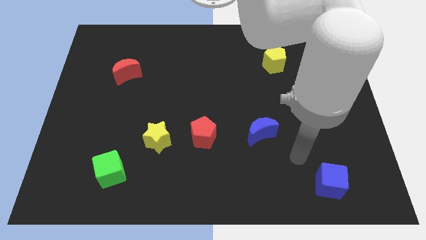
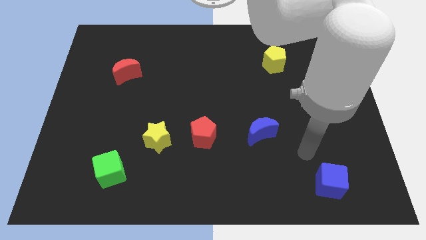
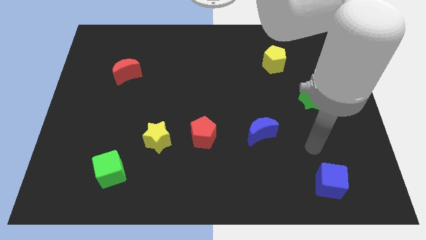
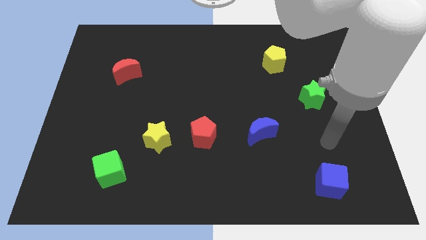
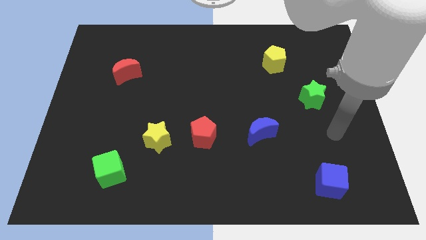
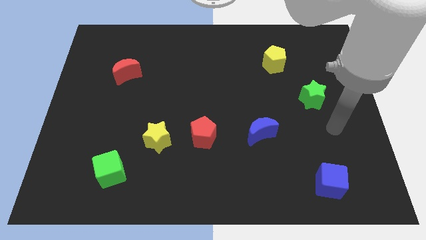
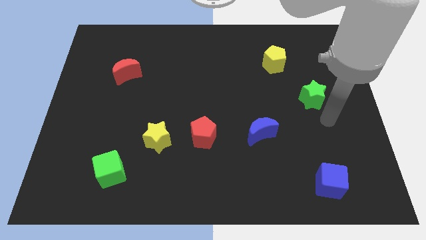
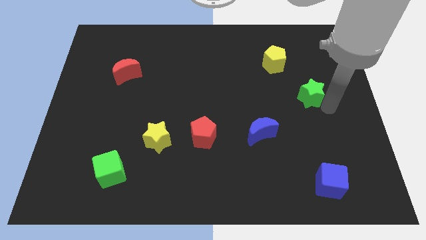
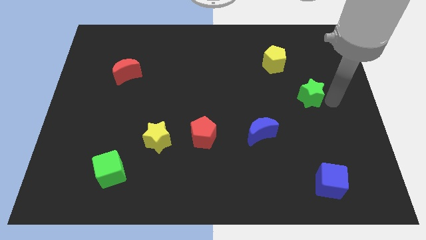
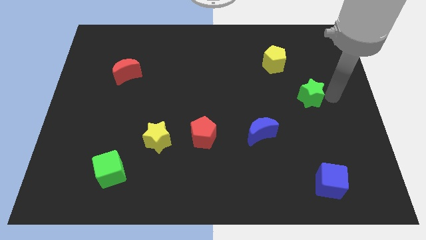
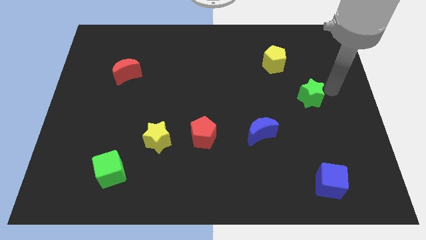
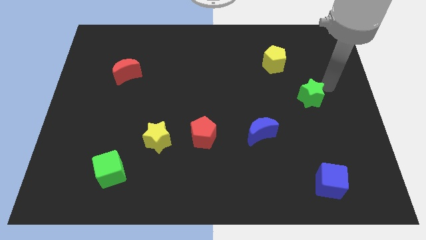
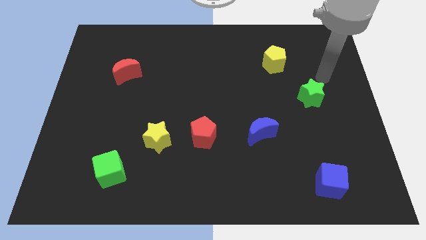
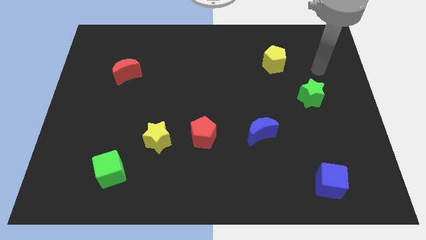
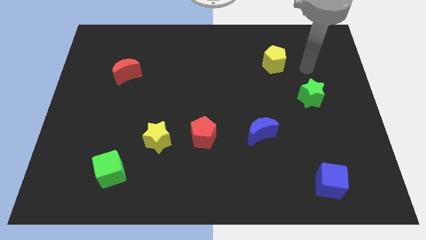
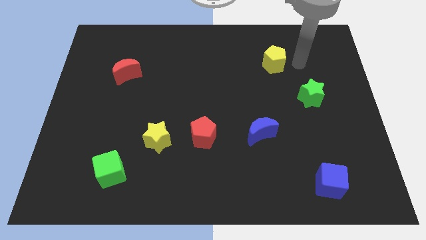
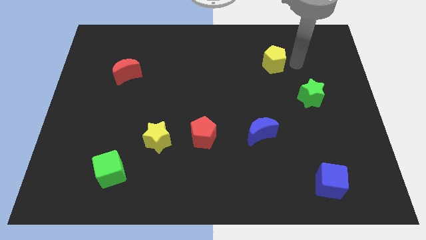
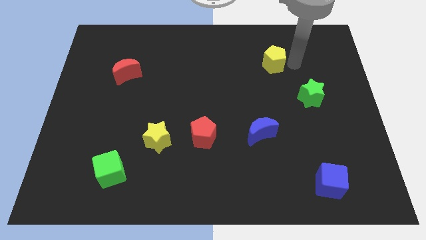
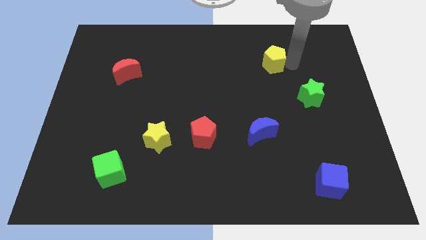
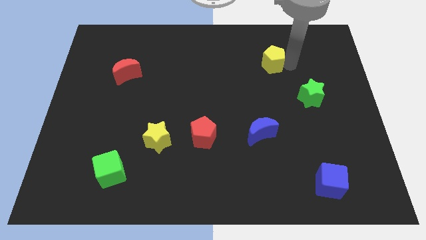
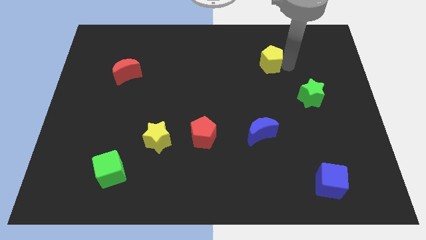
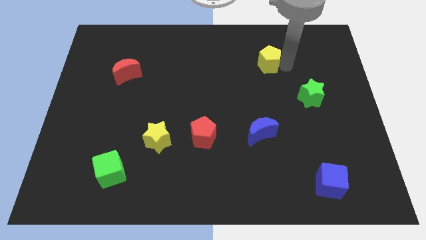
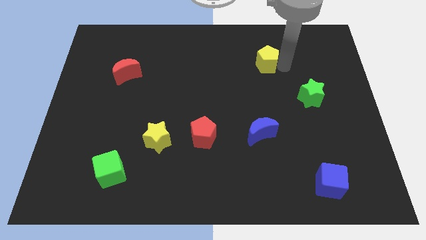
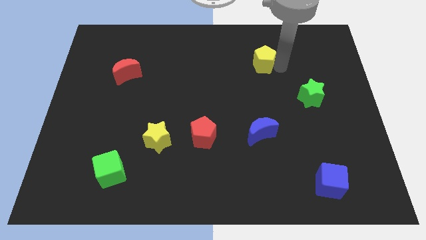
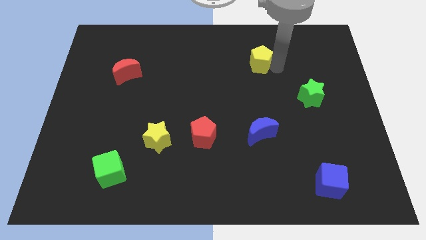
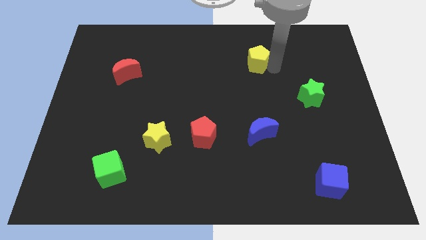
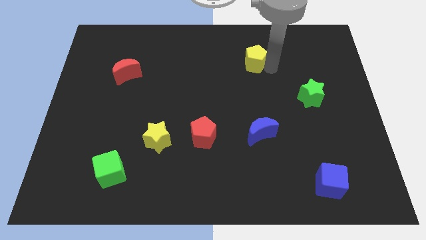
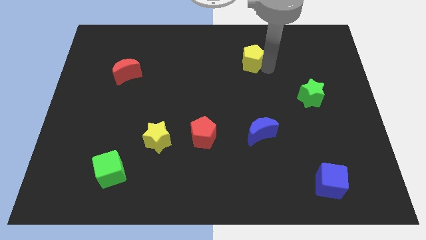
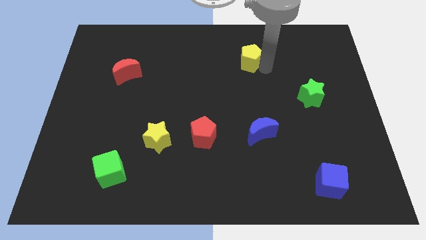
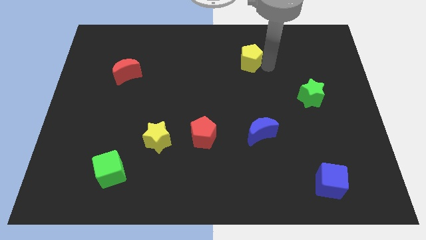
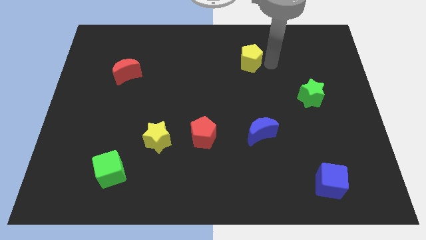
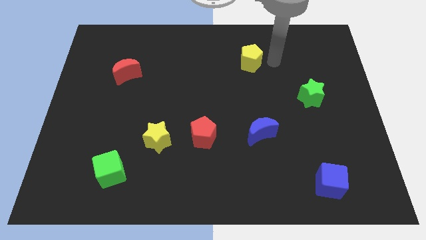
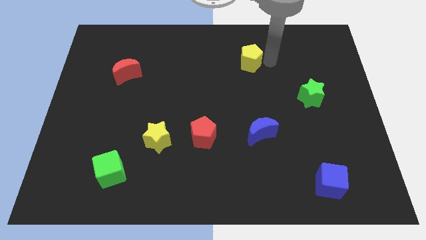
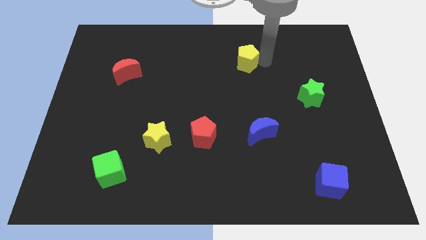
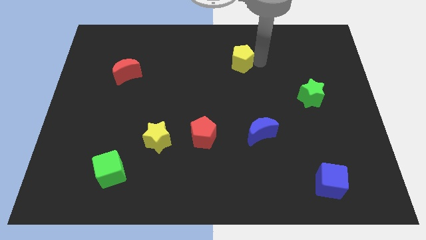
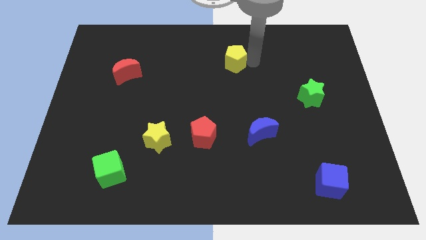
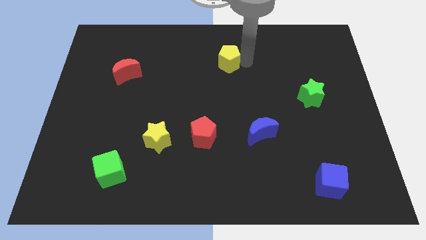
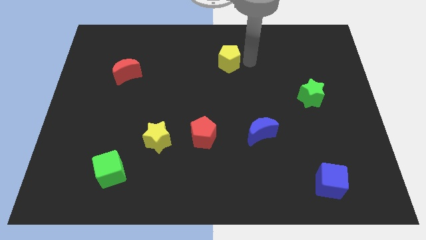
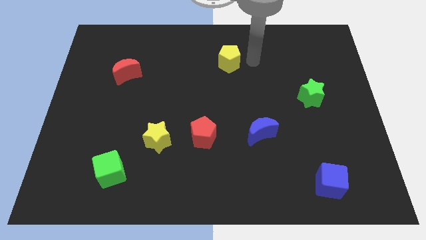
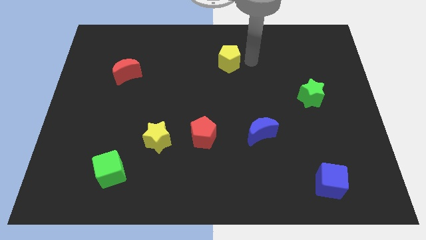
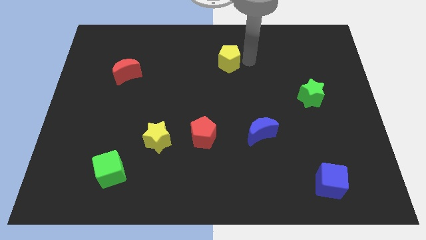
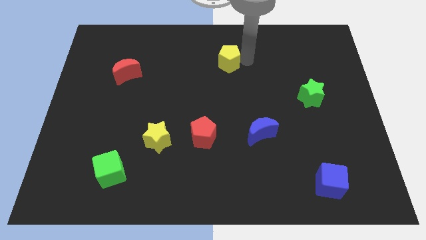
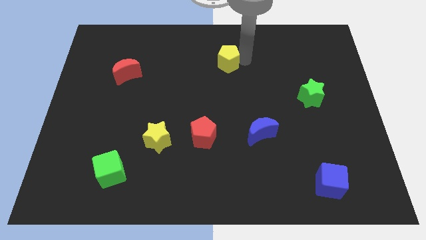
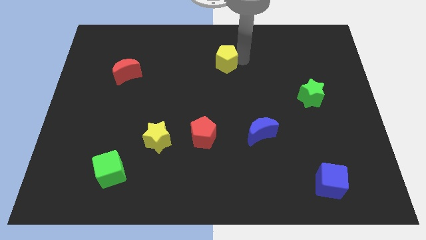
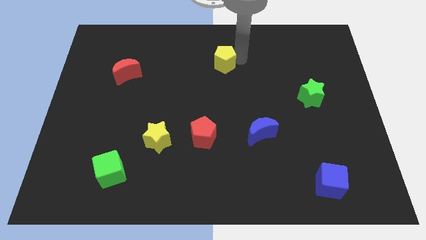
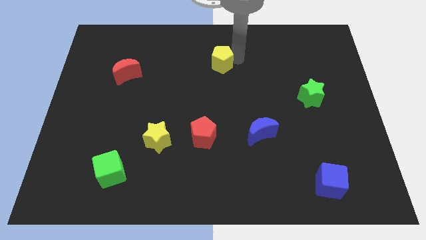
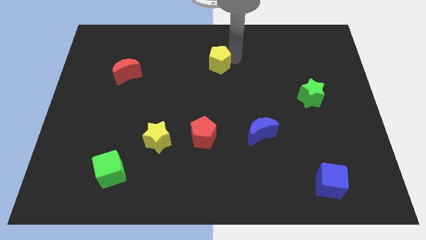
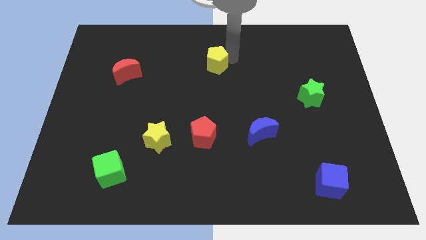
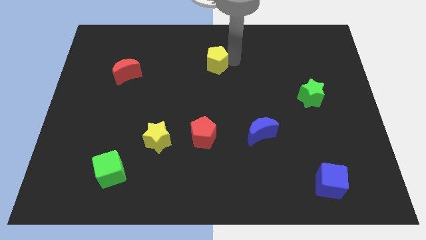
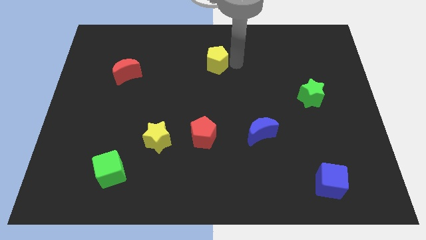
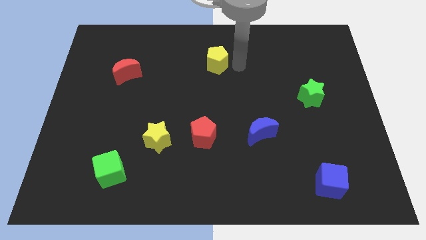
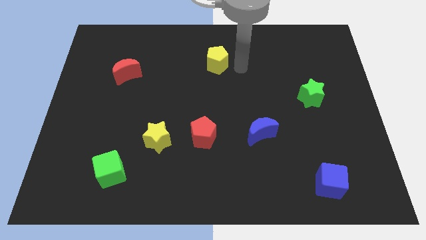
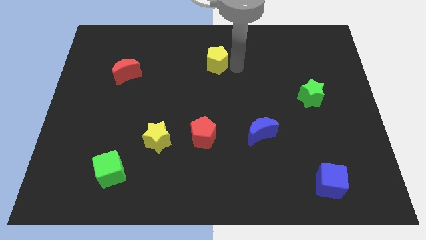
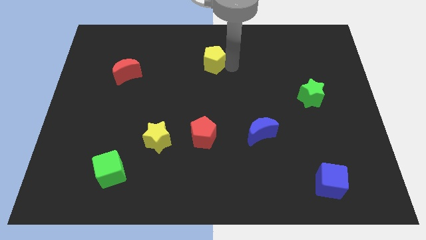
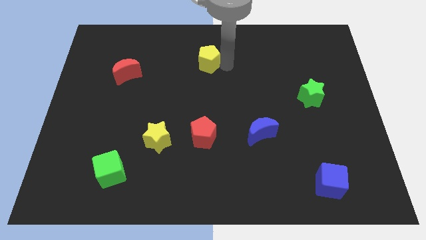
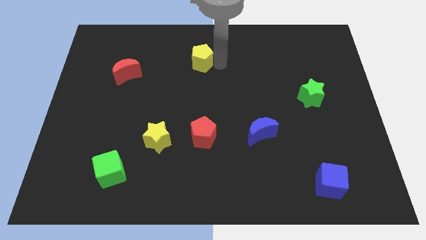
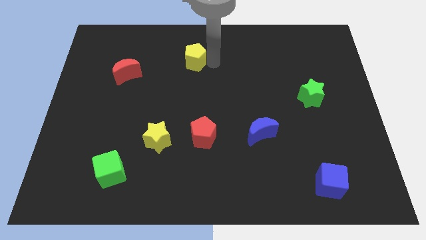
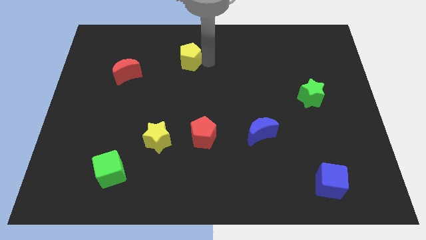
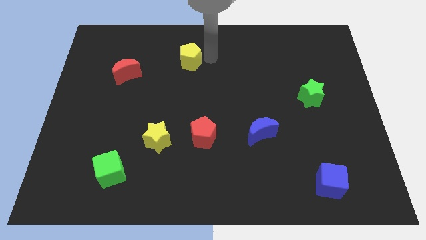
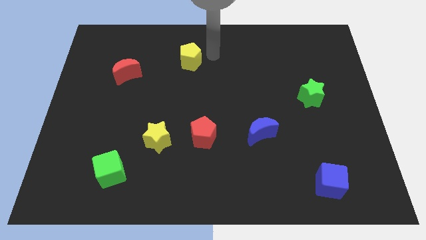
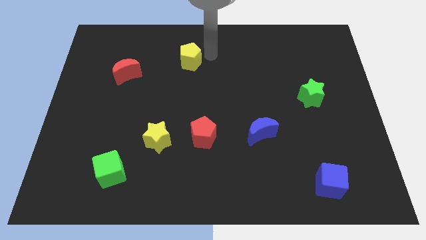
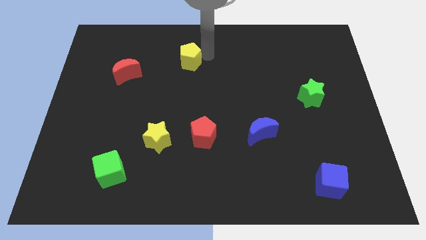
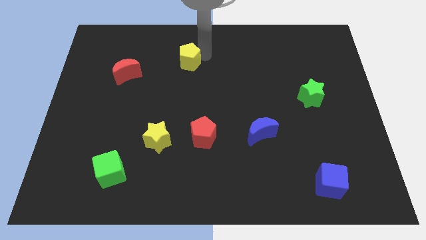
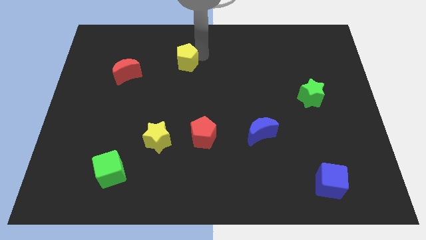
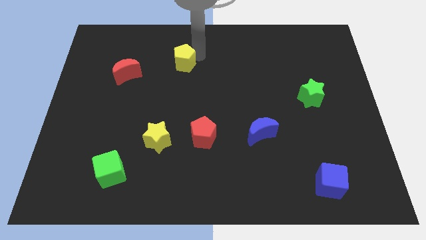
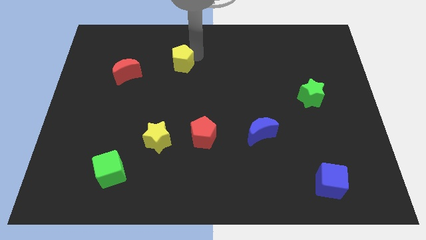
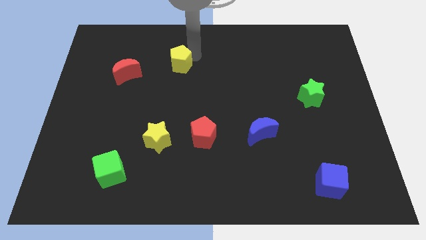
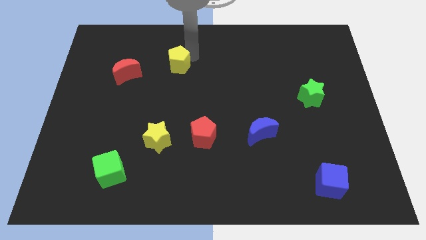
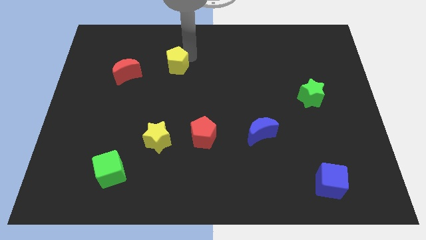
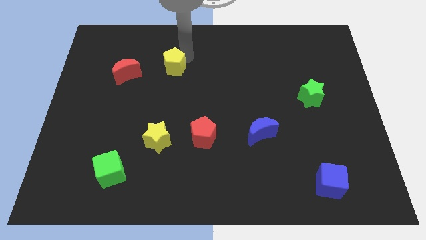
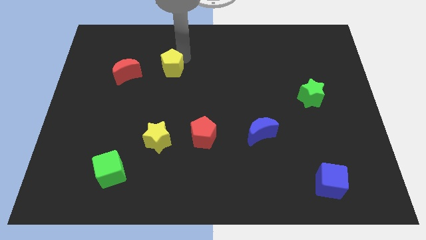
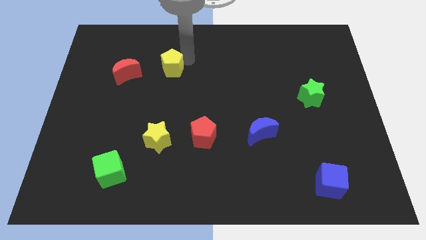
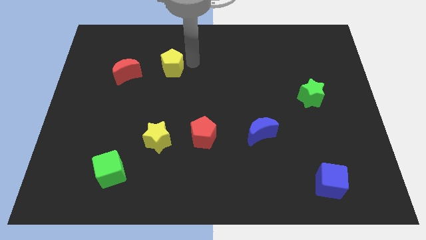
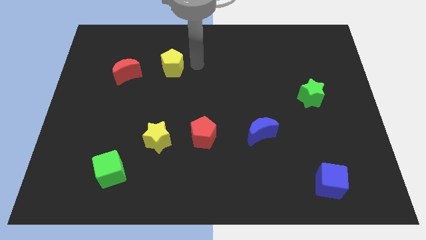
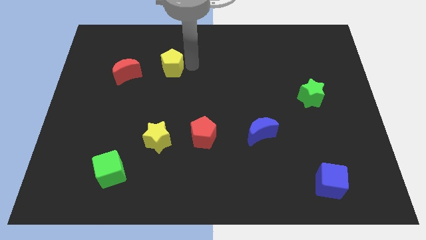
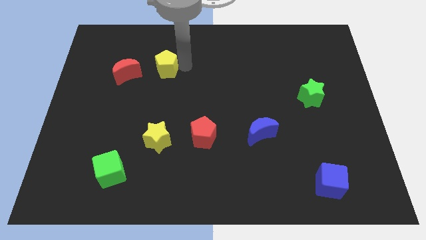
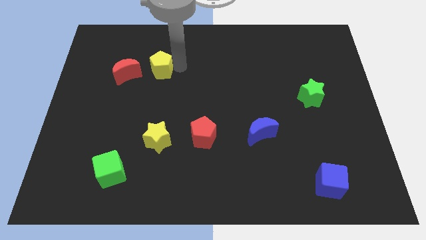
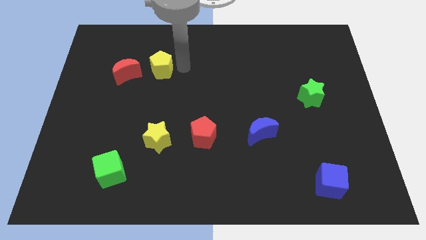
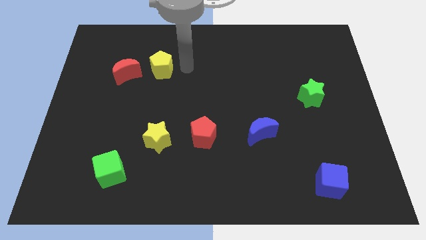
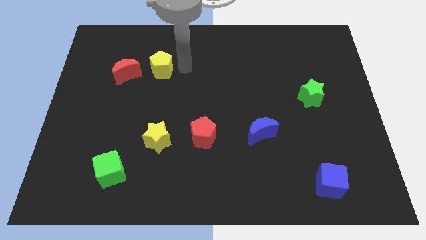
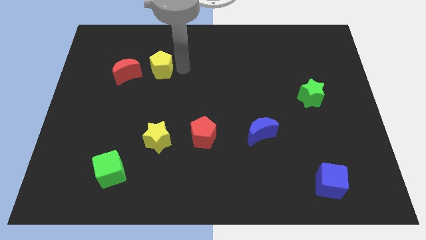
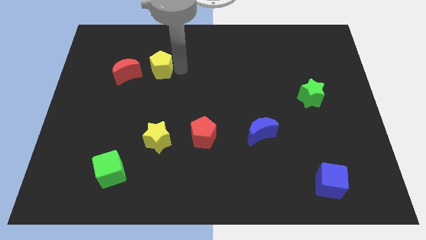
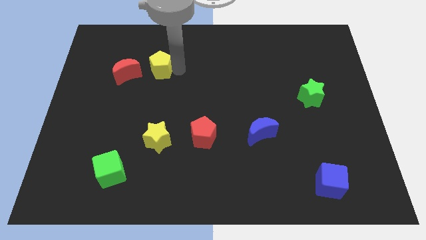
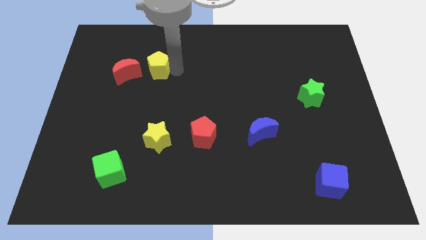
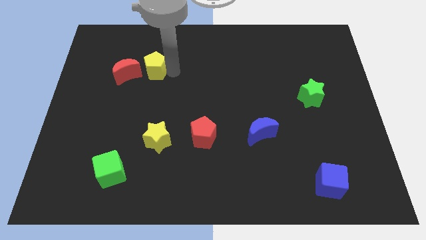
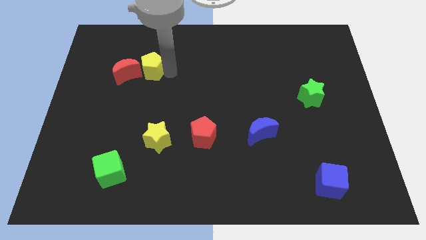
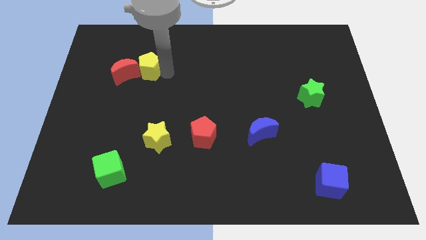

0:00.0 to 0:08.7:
move the yellow pentagon towards the red moon
